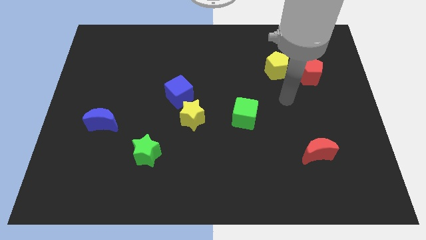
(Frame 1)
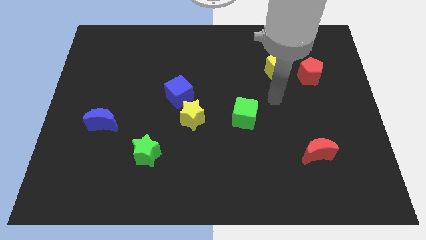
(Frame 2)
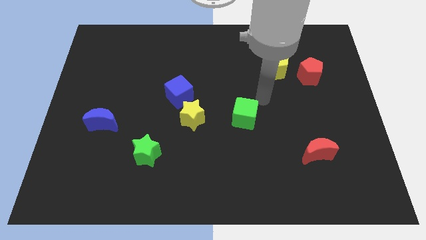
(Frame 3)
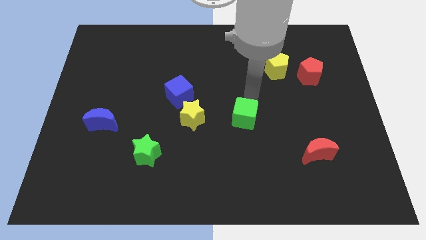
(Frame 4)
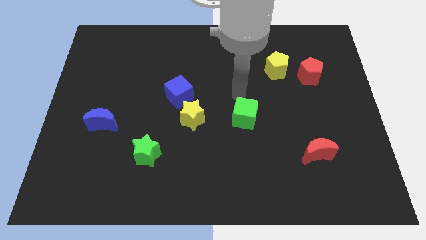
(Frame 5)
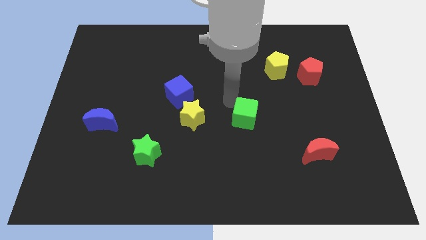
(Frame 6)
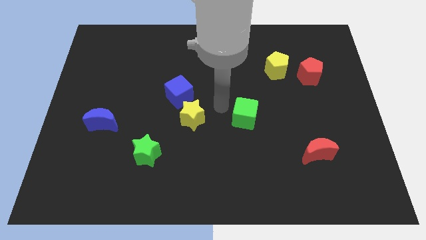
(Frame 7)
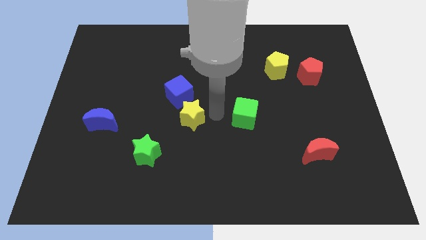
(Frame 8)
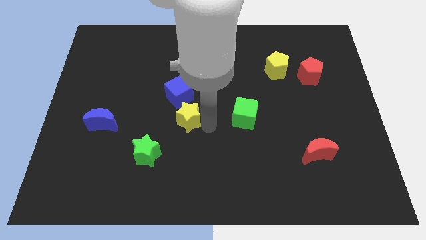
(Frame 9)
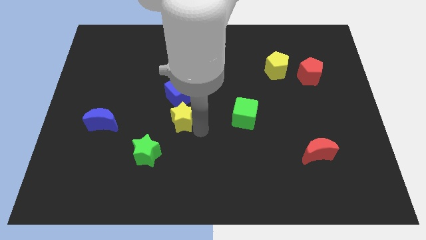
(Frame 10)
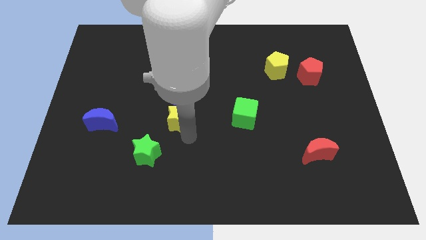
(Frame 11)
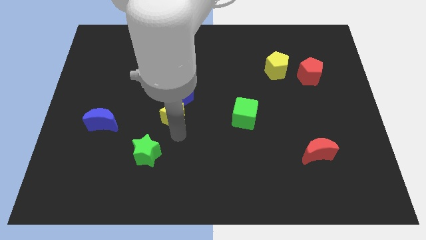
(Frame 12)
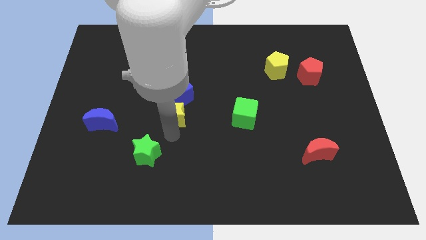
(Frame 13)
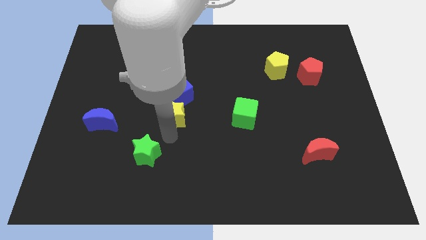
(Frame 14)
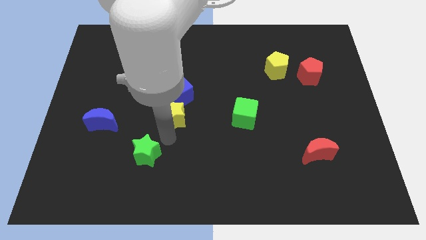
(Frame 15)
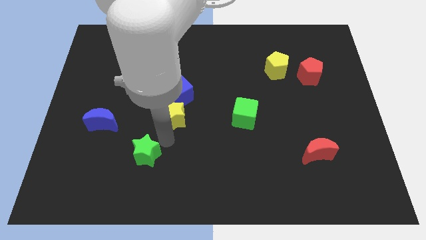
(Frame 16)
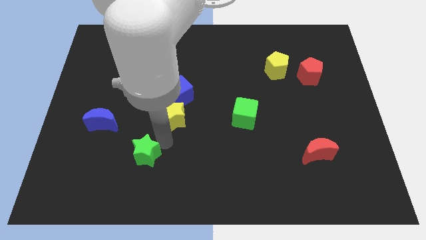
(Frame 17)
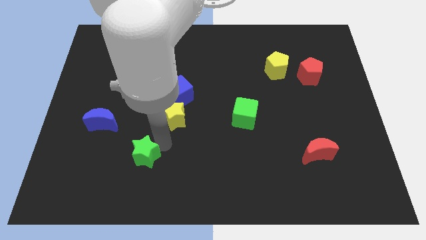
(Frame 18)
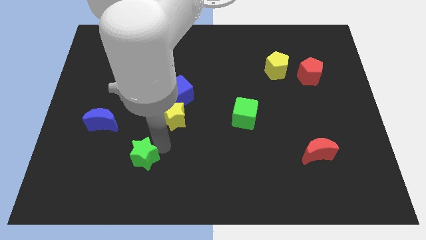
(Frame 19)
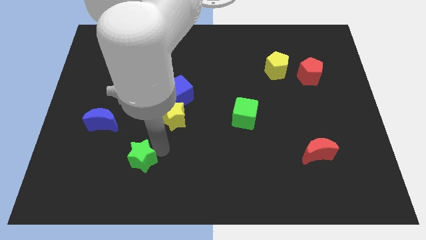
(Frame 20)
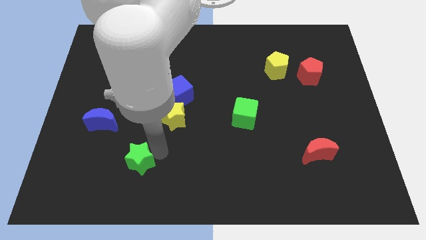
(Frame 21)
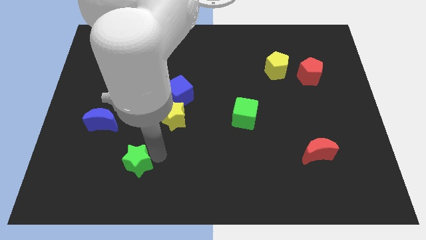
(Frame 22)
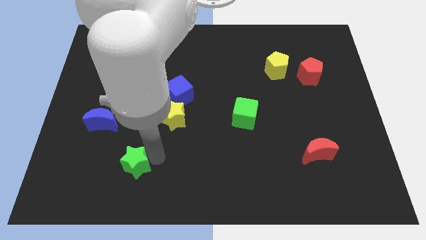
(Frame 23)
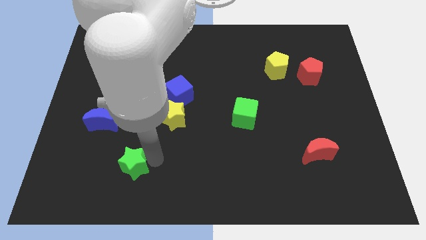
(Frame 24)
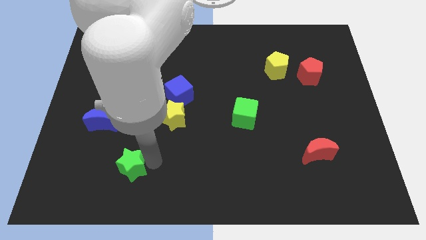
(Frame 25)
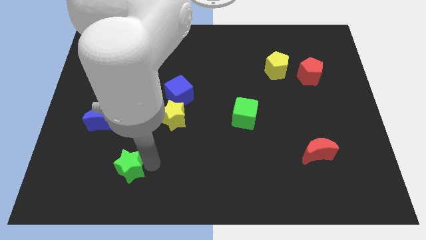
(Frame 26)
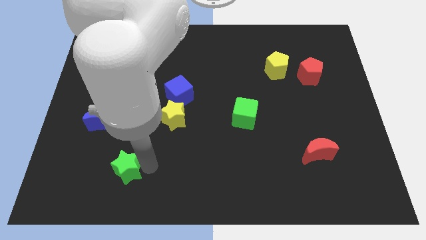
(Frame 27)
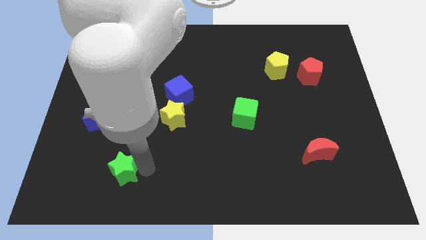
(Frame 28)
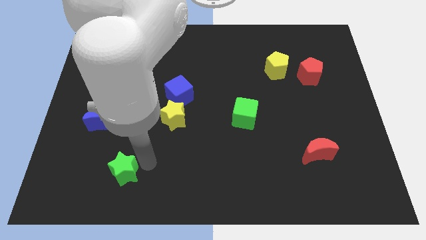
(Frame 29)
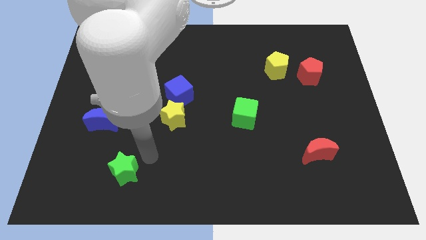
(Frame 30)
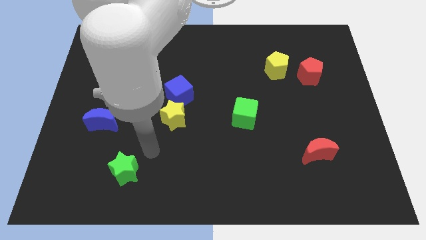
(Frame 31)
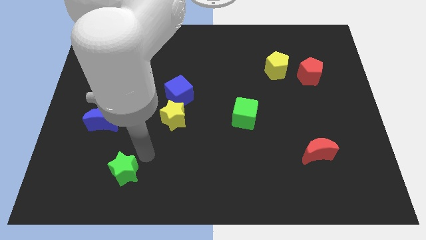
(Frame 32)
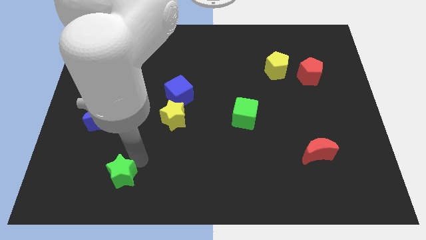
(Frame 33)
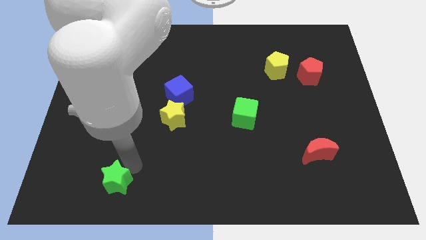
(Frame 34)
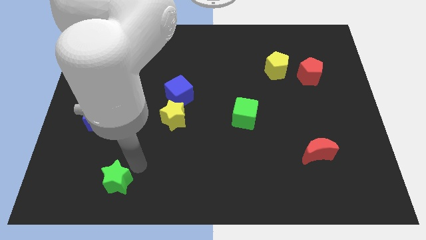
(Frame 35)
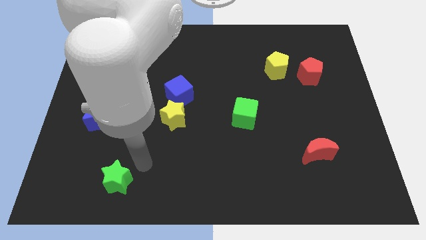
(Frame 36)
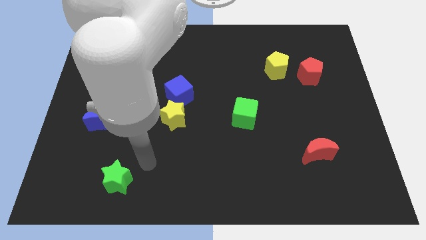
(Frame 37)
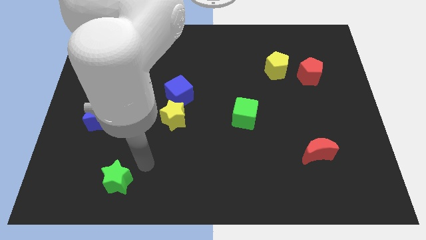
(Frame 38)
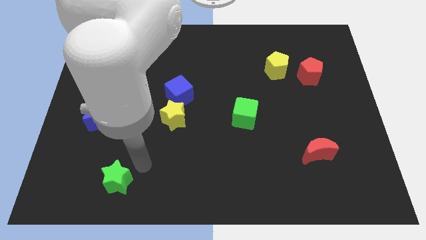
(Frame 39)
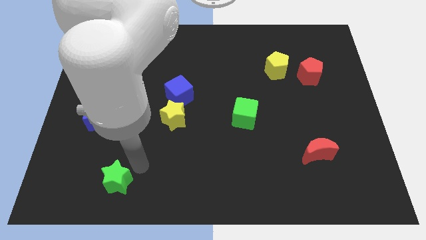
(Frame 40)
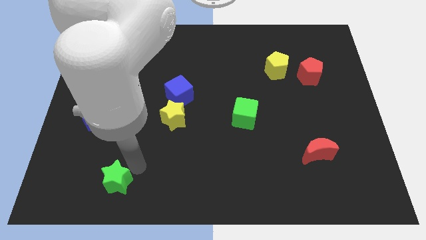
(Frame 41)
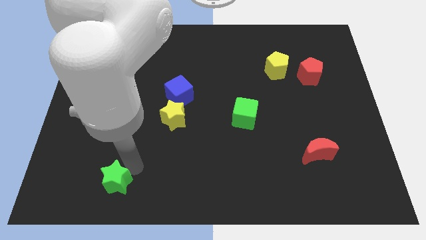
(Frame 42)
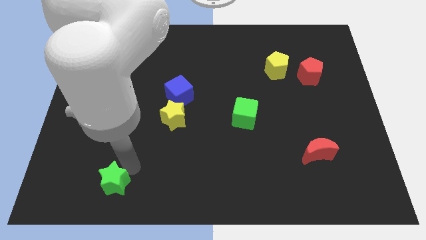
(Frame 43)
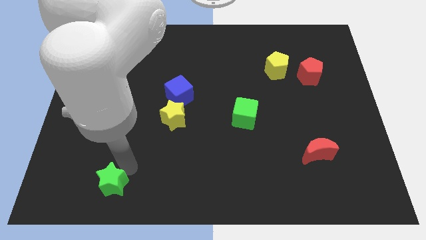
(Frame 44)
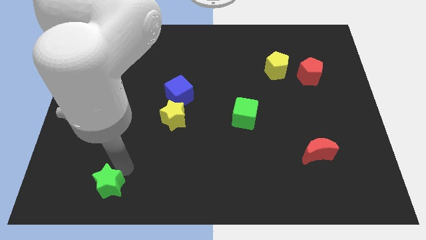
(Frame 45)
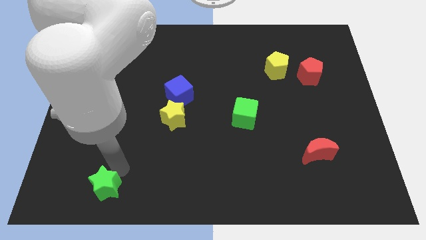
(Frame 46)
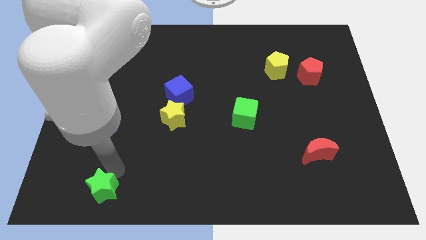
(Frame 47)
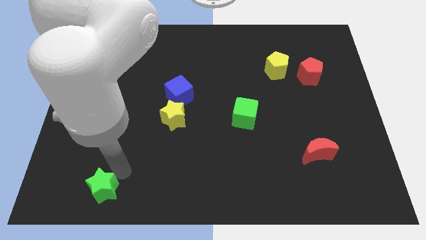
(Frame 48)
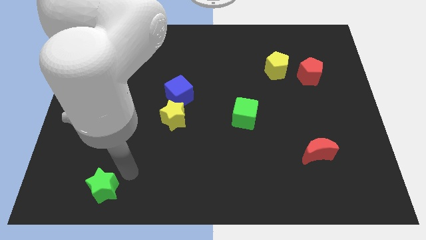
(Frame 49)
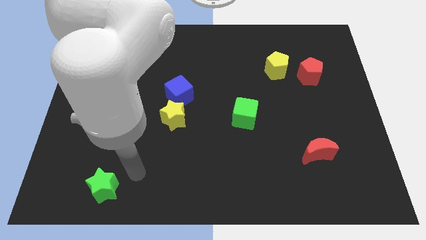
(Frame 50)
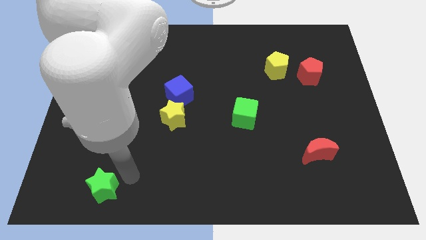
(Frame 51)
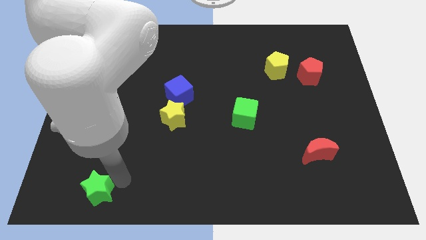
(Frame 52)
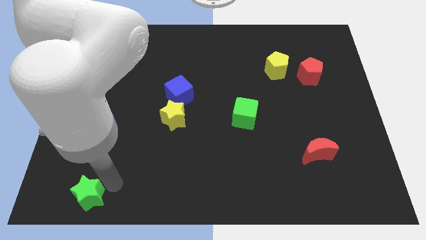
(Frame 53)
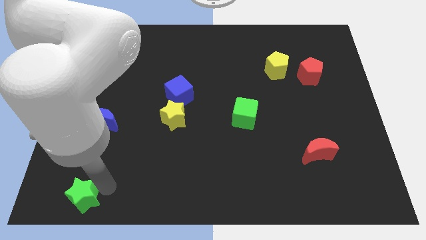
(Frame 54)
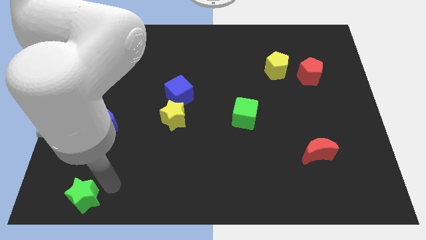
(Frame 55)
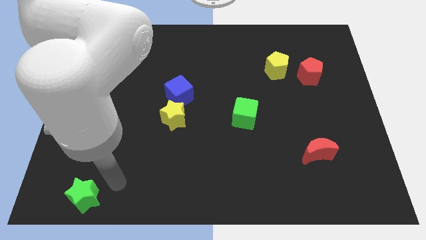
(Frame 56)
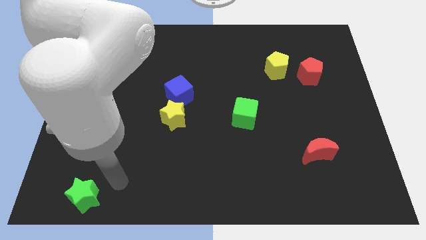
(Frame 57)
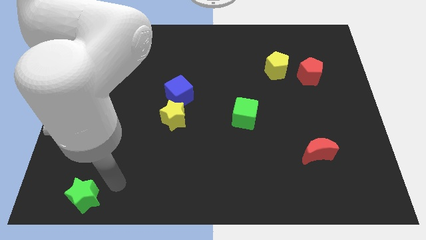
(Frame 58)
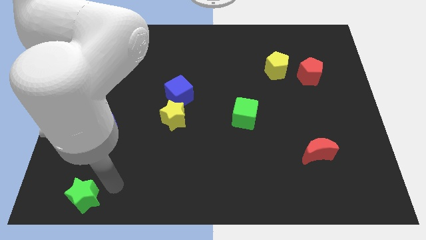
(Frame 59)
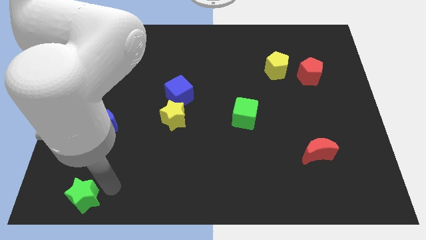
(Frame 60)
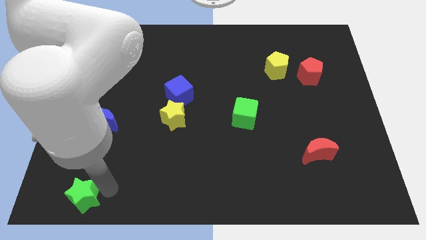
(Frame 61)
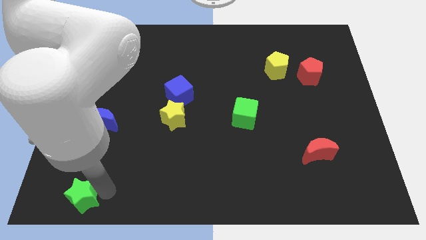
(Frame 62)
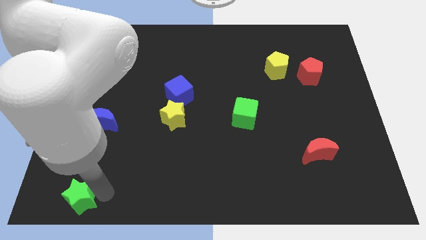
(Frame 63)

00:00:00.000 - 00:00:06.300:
slide the green star to the bottom left

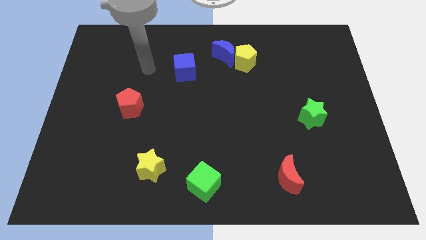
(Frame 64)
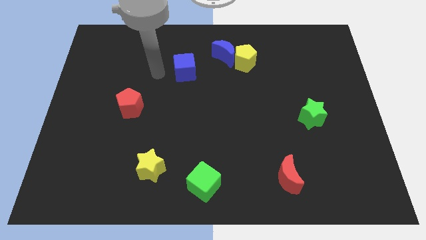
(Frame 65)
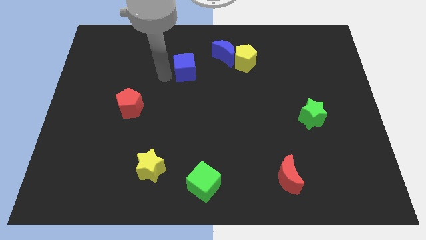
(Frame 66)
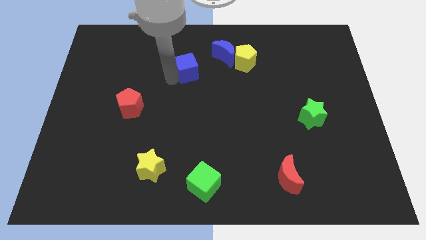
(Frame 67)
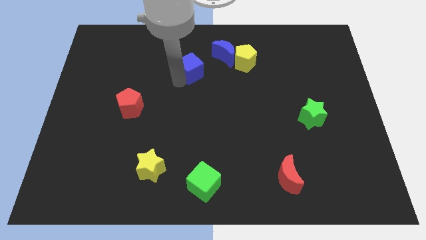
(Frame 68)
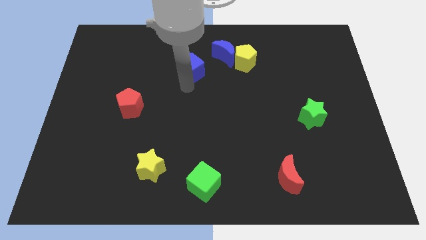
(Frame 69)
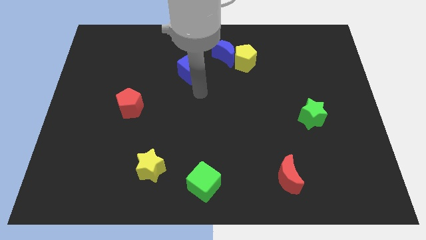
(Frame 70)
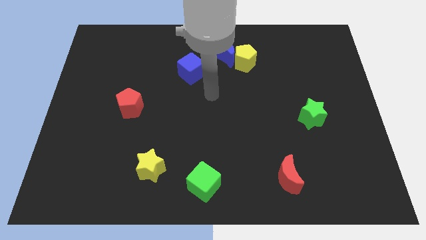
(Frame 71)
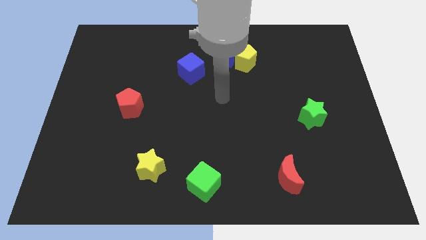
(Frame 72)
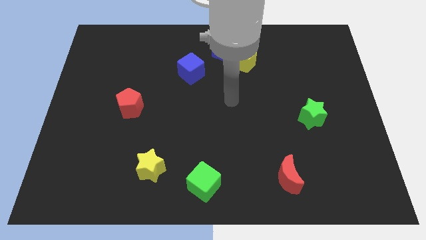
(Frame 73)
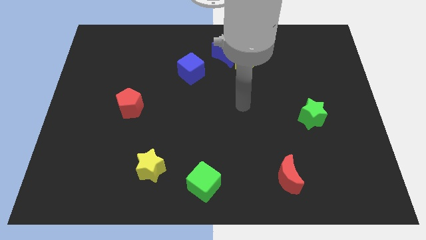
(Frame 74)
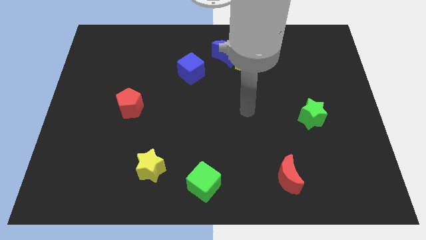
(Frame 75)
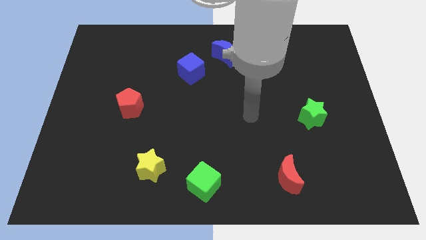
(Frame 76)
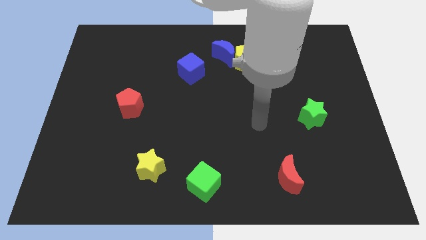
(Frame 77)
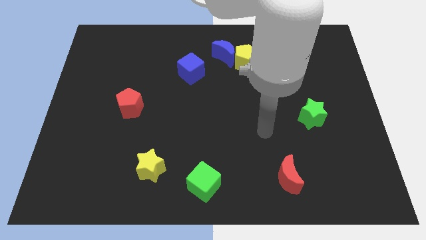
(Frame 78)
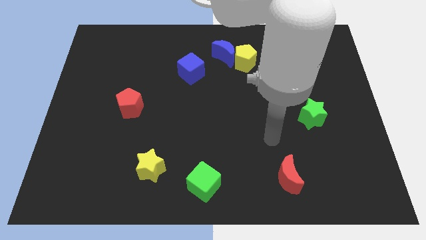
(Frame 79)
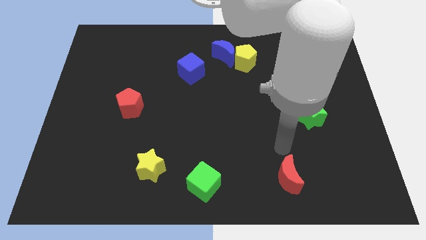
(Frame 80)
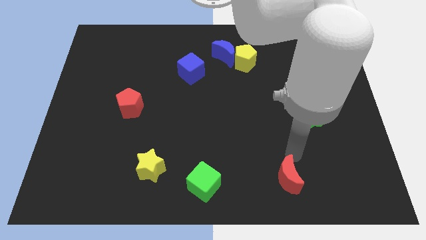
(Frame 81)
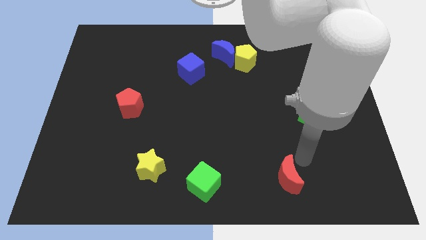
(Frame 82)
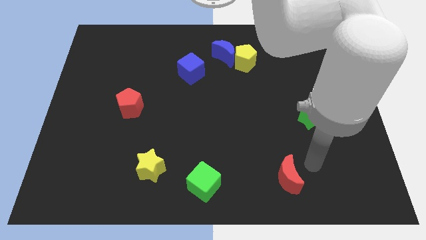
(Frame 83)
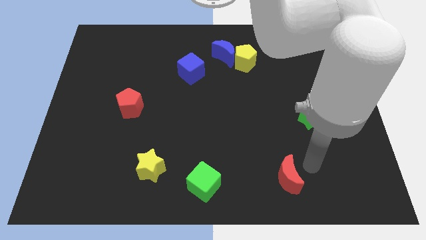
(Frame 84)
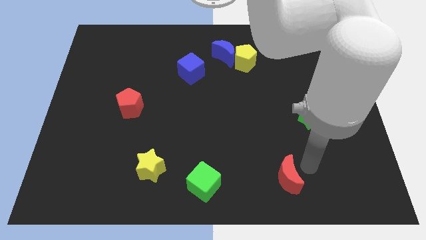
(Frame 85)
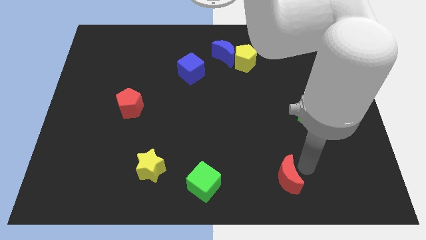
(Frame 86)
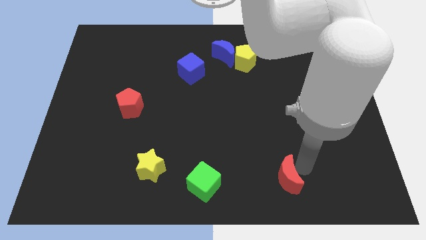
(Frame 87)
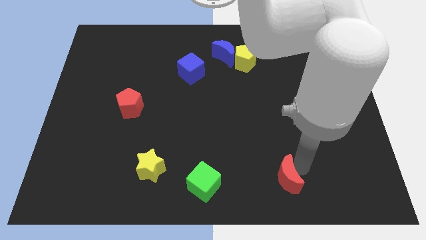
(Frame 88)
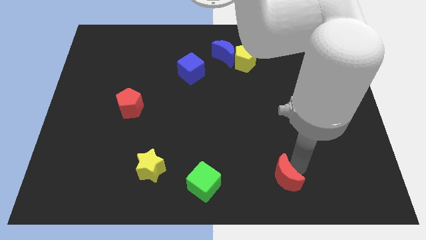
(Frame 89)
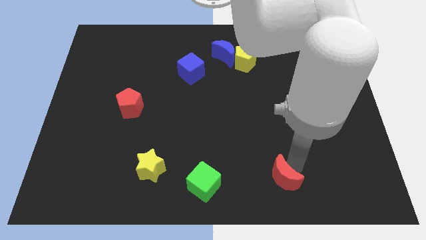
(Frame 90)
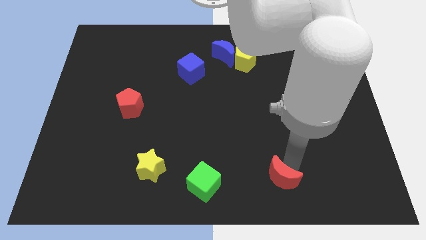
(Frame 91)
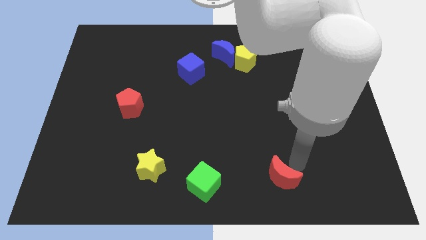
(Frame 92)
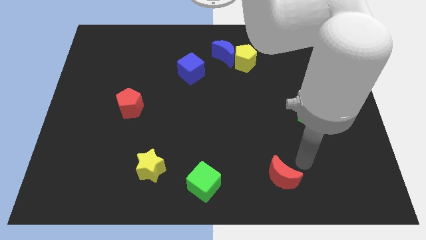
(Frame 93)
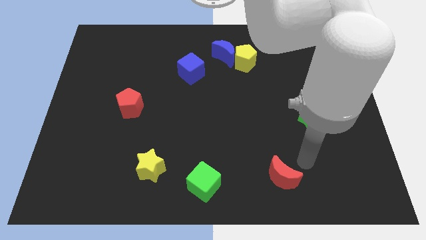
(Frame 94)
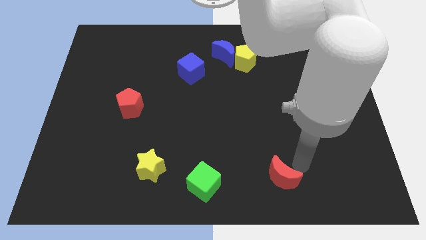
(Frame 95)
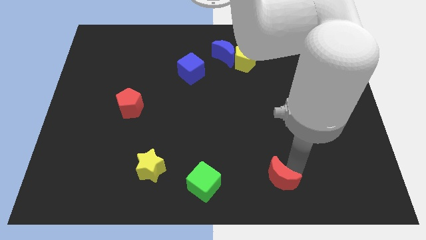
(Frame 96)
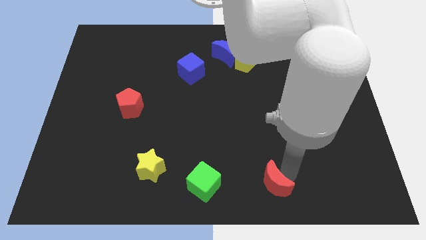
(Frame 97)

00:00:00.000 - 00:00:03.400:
push the red moon to the bottom side
